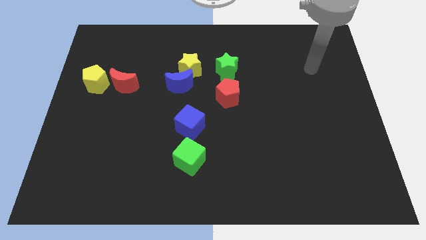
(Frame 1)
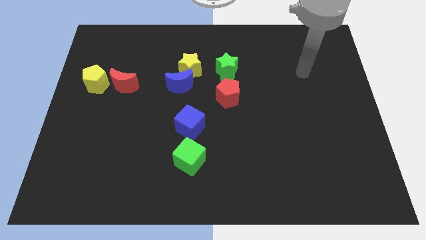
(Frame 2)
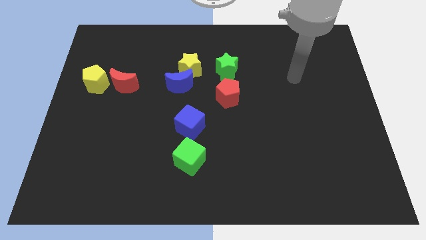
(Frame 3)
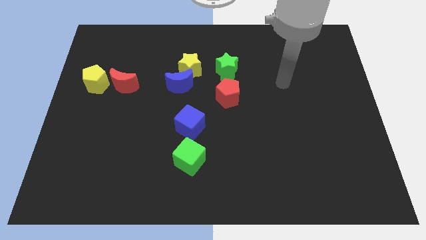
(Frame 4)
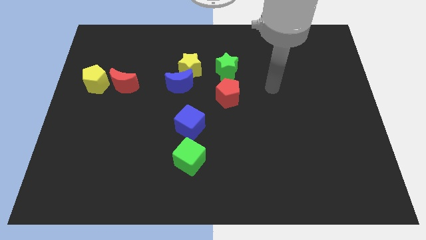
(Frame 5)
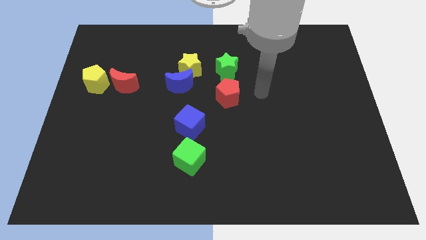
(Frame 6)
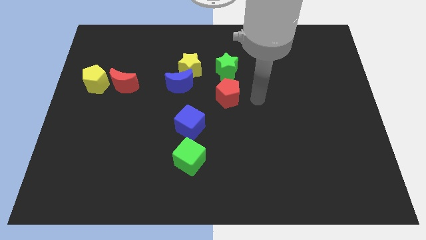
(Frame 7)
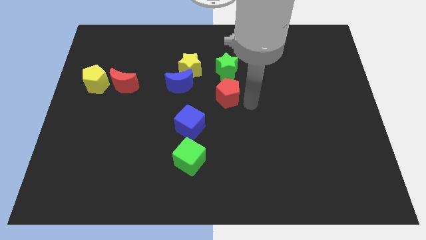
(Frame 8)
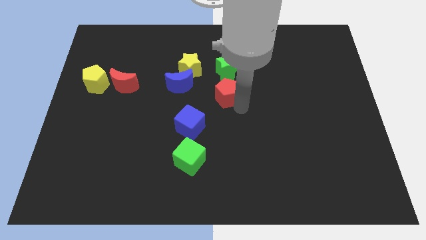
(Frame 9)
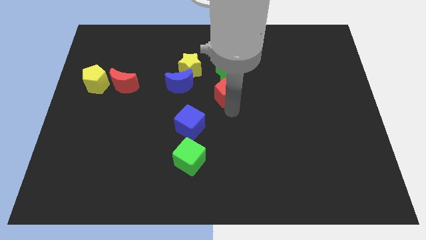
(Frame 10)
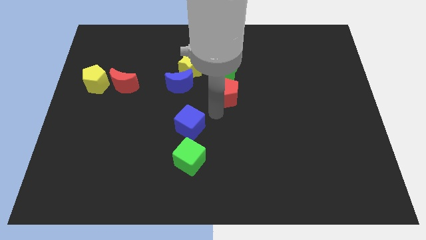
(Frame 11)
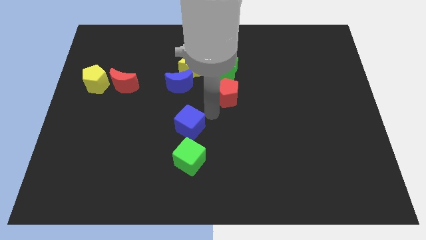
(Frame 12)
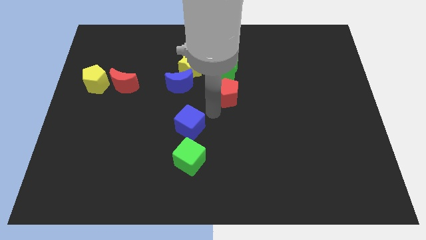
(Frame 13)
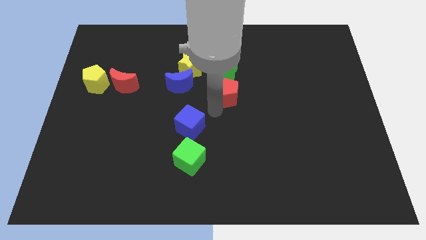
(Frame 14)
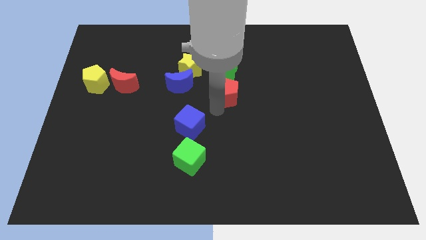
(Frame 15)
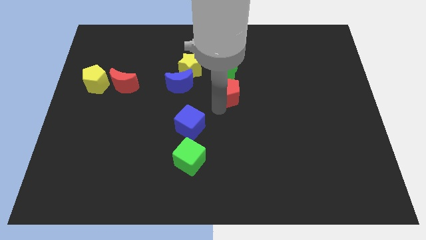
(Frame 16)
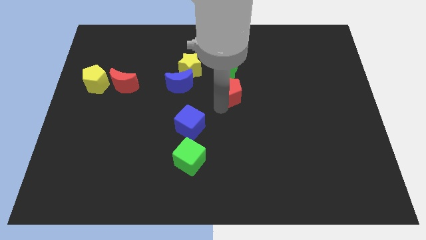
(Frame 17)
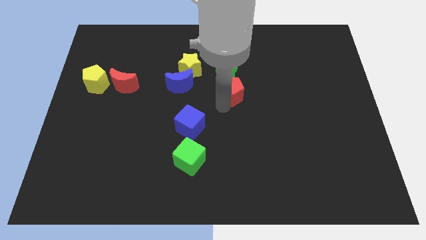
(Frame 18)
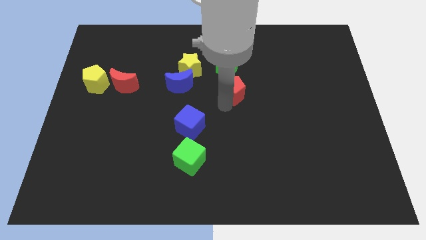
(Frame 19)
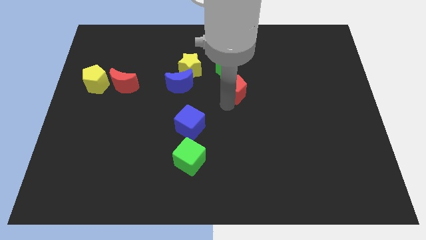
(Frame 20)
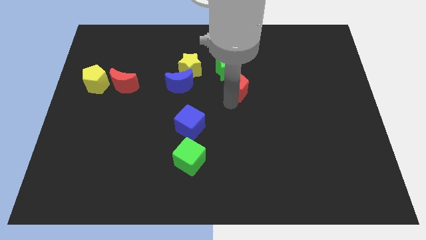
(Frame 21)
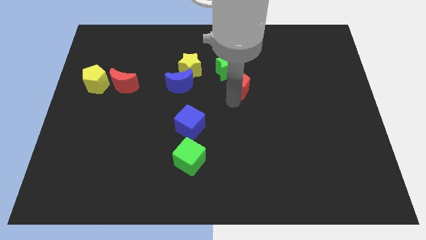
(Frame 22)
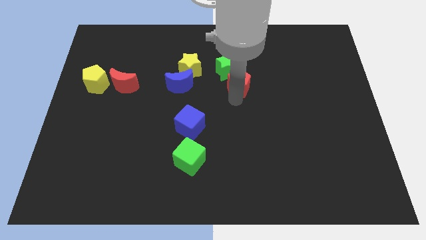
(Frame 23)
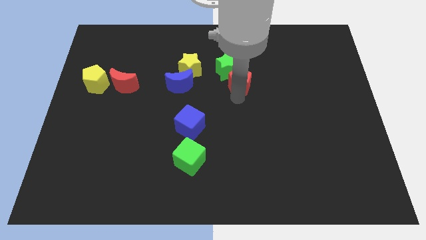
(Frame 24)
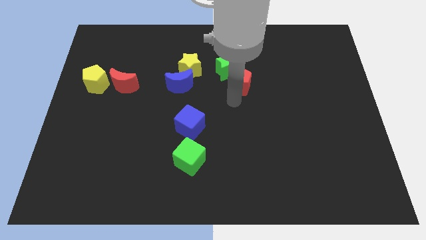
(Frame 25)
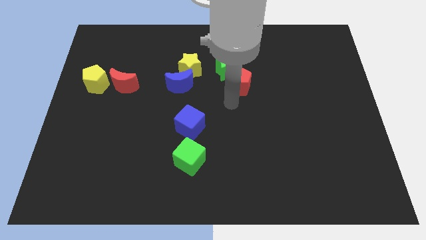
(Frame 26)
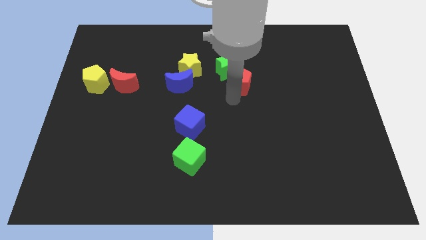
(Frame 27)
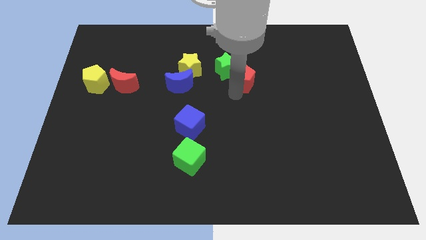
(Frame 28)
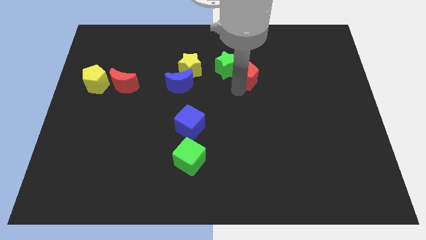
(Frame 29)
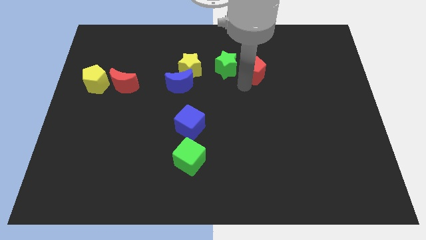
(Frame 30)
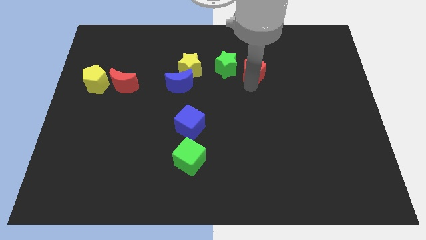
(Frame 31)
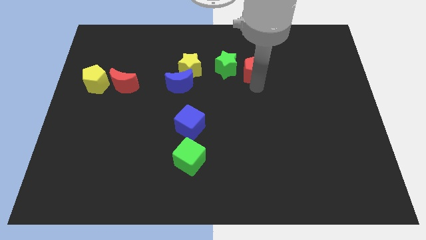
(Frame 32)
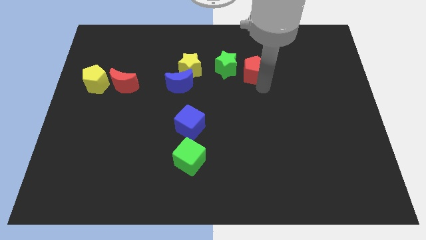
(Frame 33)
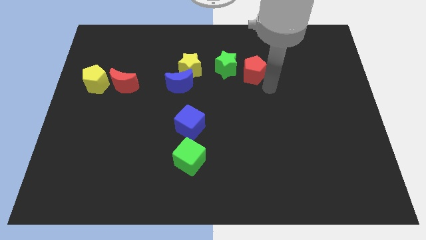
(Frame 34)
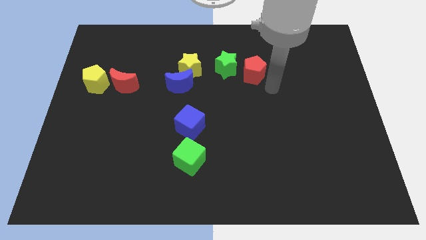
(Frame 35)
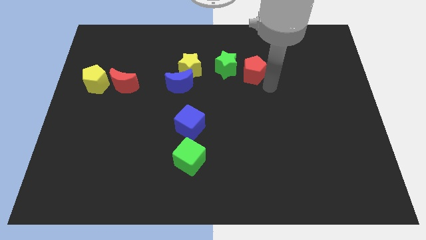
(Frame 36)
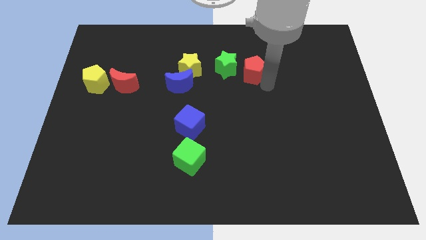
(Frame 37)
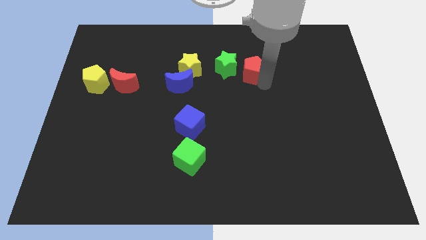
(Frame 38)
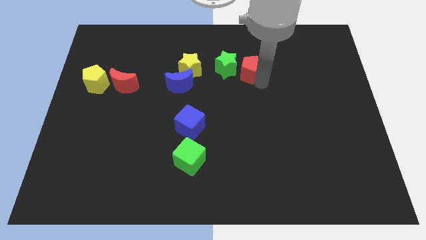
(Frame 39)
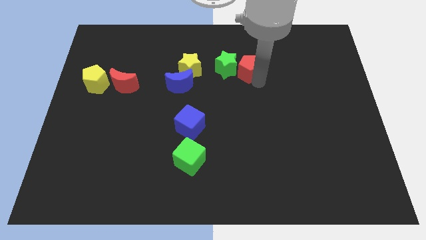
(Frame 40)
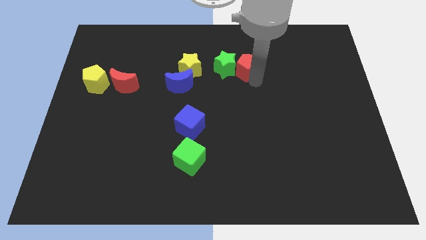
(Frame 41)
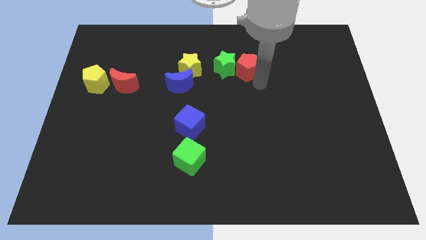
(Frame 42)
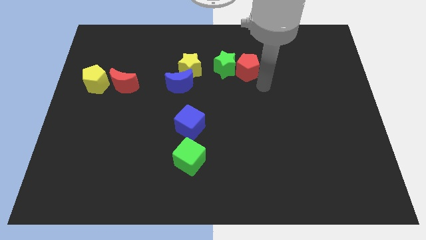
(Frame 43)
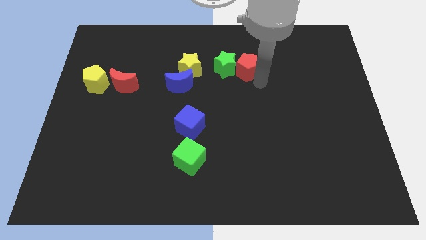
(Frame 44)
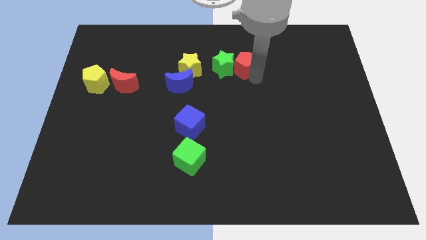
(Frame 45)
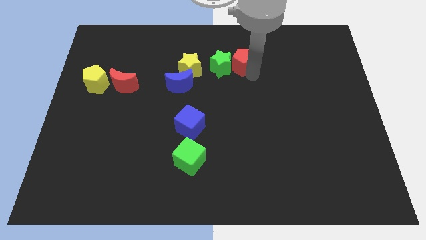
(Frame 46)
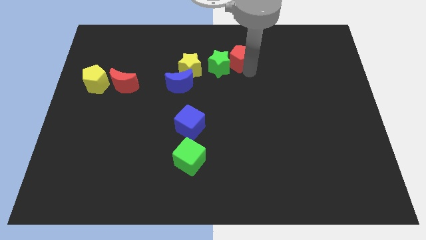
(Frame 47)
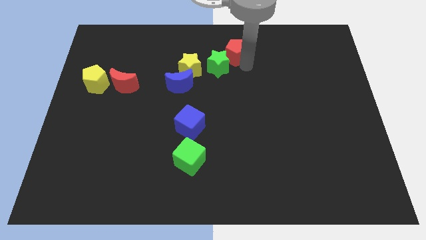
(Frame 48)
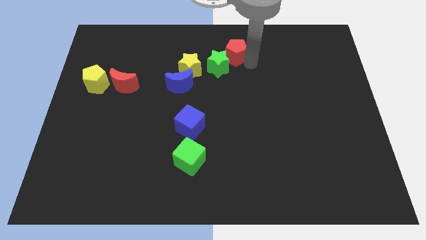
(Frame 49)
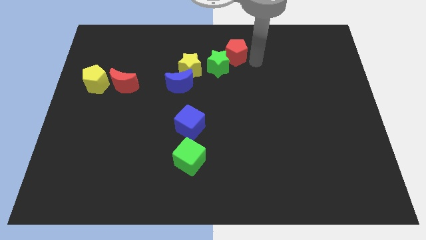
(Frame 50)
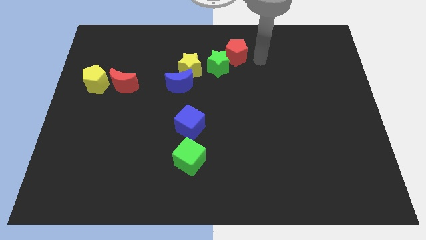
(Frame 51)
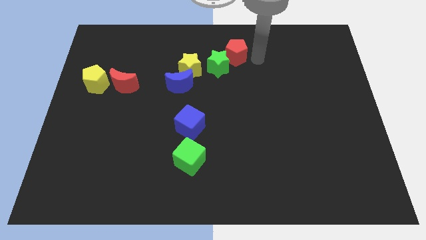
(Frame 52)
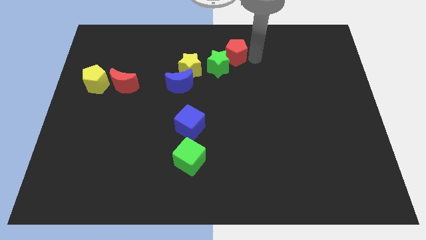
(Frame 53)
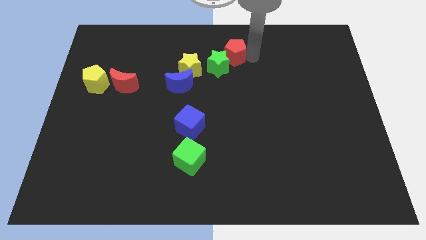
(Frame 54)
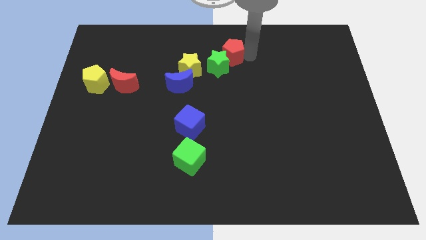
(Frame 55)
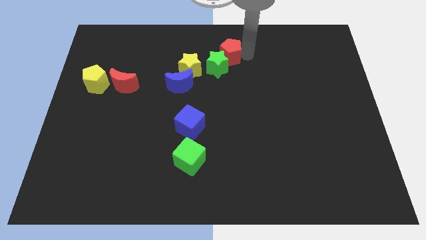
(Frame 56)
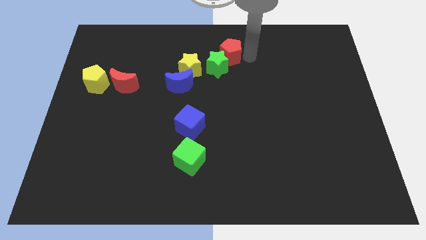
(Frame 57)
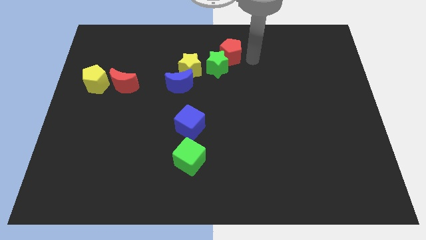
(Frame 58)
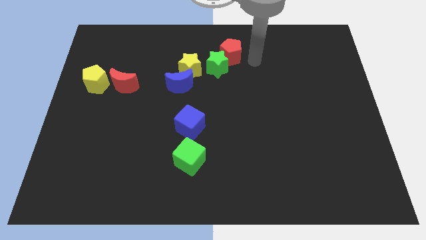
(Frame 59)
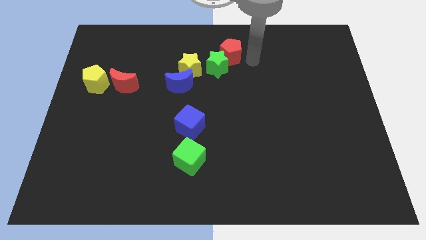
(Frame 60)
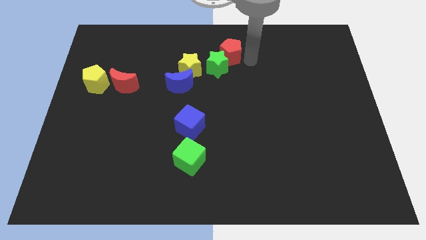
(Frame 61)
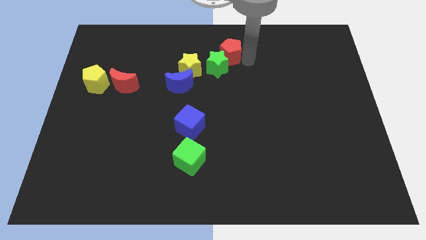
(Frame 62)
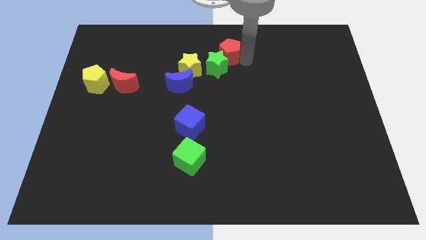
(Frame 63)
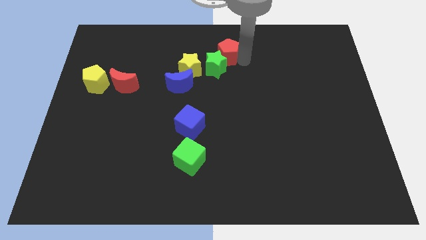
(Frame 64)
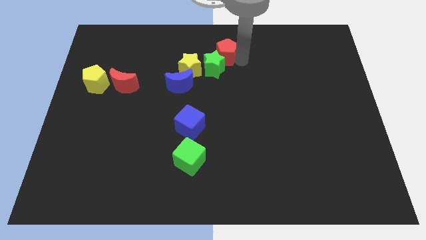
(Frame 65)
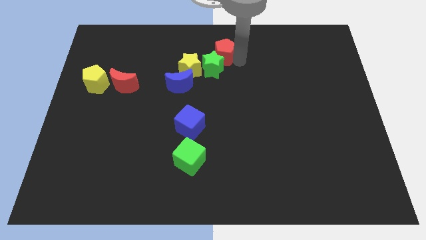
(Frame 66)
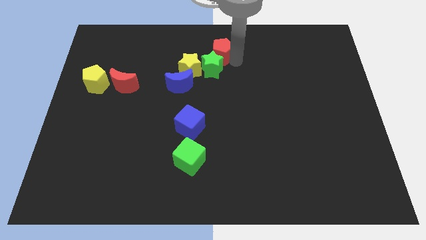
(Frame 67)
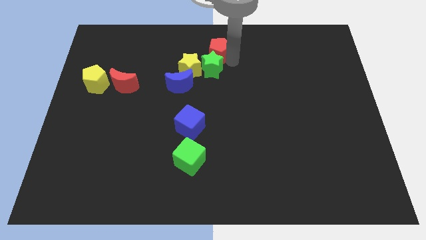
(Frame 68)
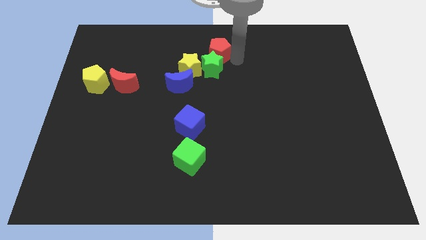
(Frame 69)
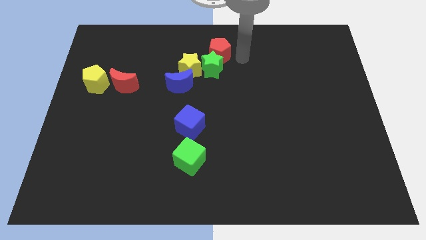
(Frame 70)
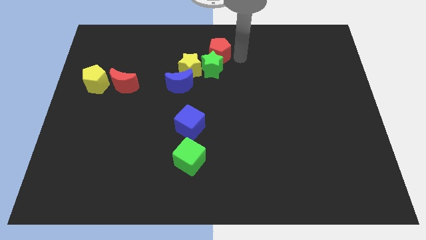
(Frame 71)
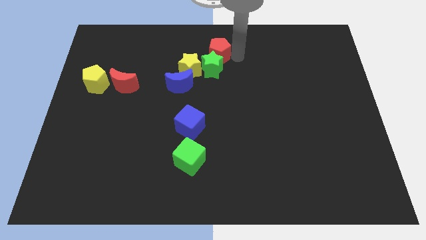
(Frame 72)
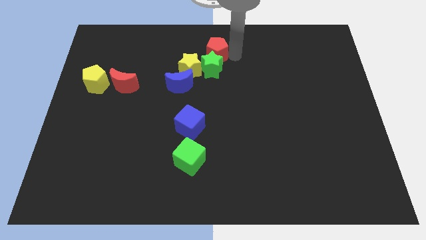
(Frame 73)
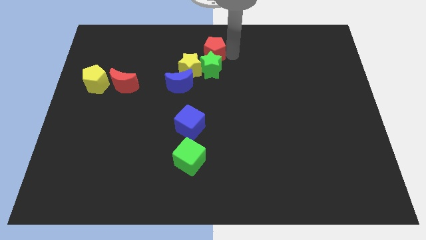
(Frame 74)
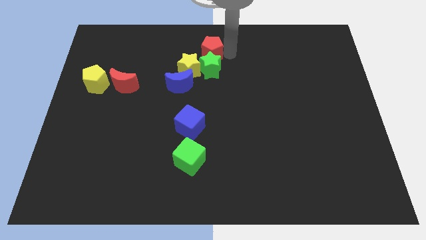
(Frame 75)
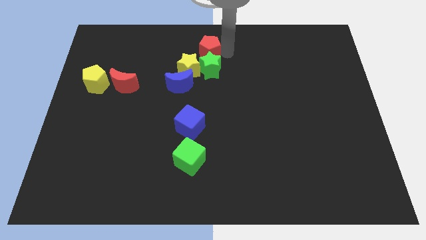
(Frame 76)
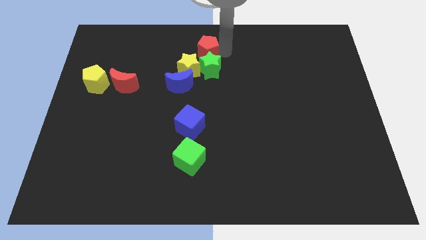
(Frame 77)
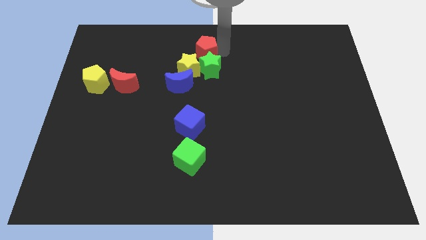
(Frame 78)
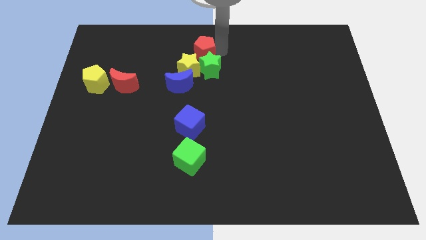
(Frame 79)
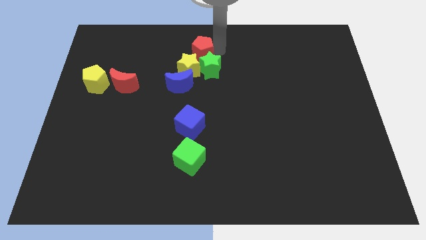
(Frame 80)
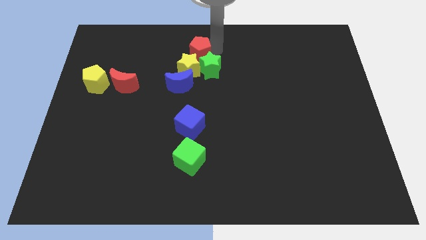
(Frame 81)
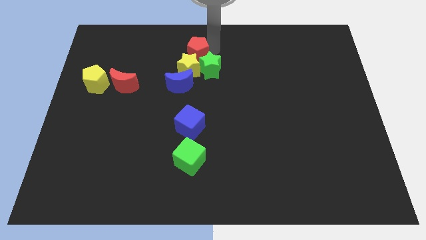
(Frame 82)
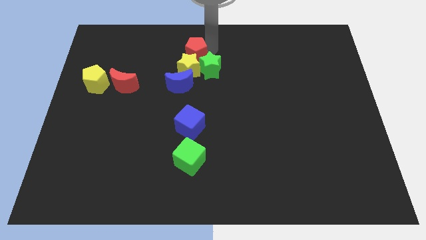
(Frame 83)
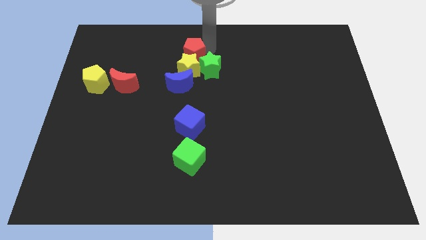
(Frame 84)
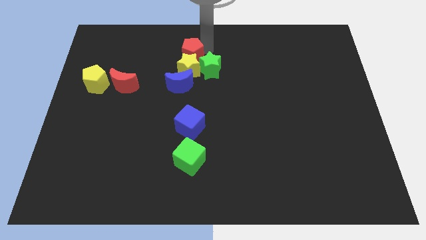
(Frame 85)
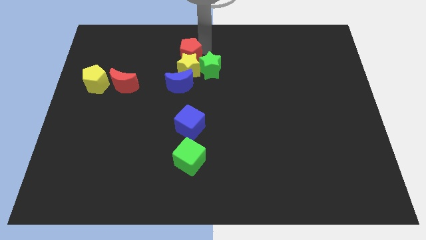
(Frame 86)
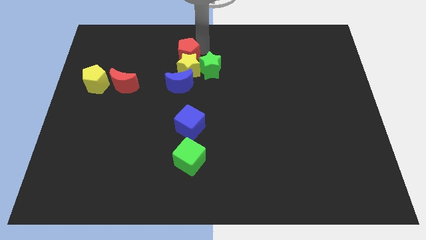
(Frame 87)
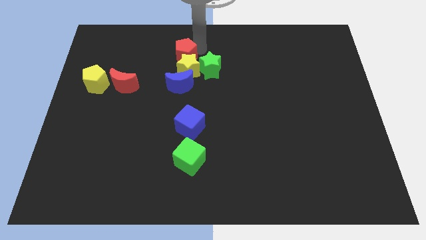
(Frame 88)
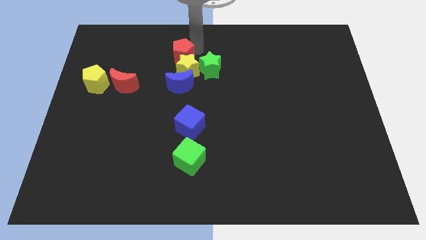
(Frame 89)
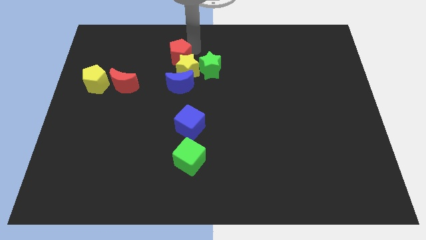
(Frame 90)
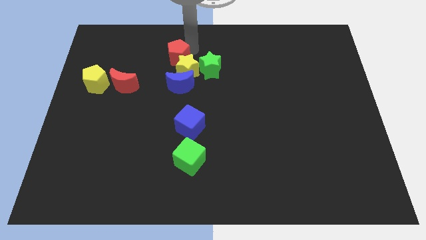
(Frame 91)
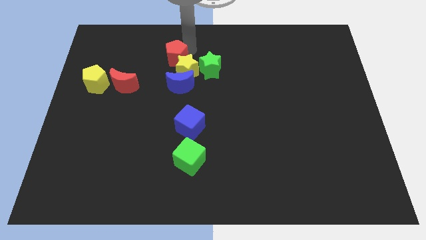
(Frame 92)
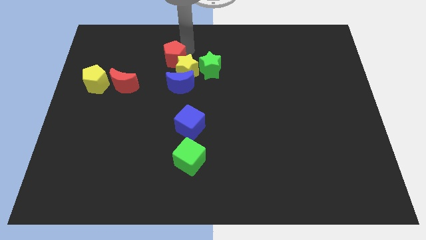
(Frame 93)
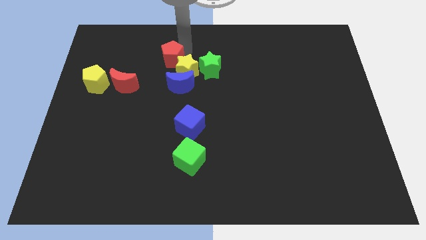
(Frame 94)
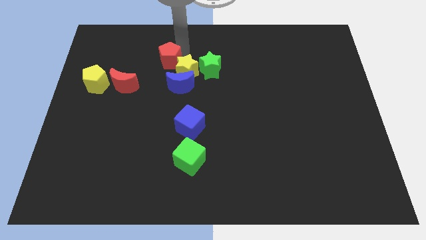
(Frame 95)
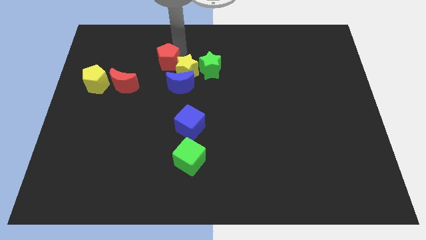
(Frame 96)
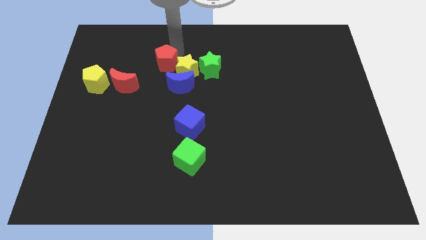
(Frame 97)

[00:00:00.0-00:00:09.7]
push the red pentagon to the top right of the red moon
